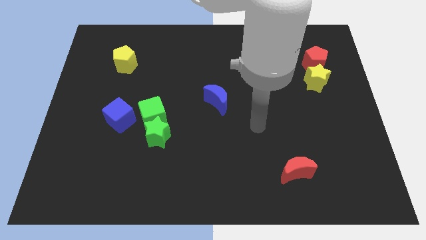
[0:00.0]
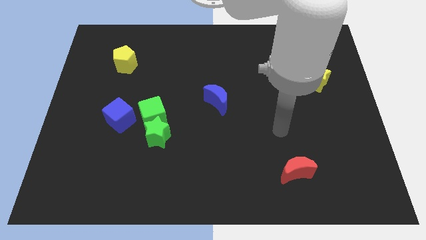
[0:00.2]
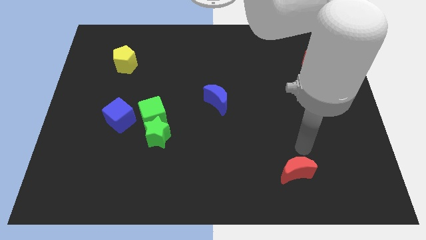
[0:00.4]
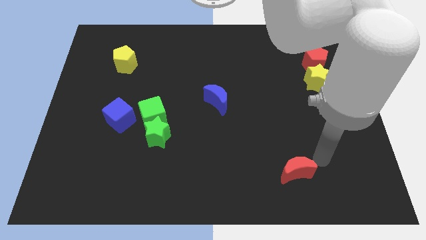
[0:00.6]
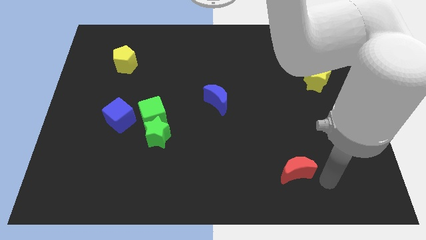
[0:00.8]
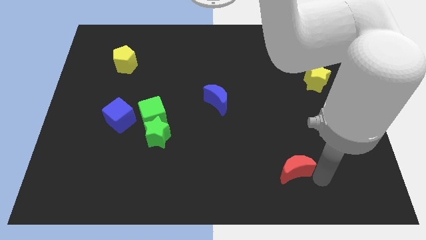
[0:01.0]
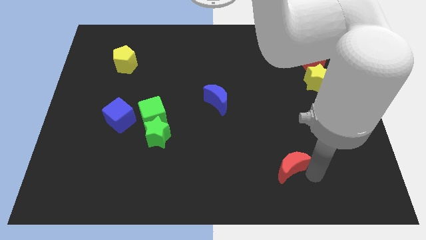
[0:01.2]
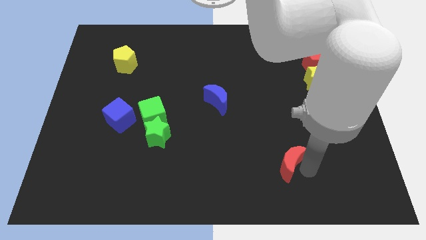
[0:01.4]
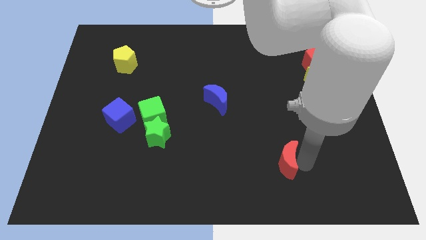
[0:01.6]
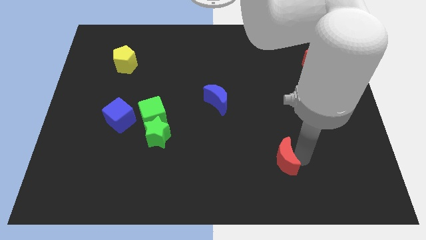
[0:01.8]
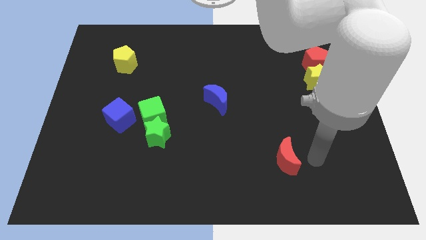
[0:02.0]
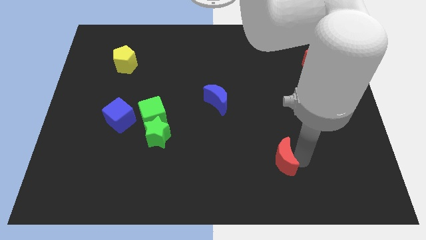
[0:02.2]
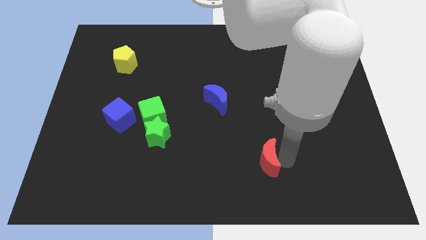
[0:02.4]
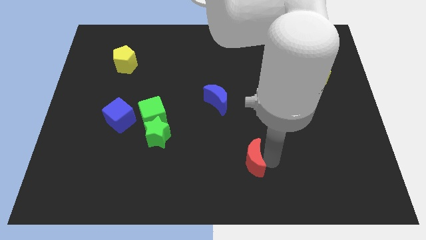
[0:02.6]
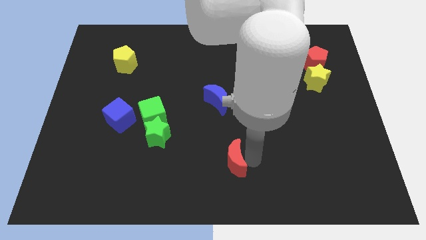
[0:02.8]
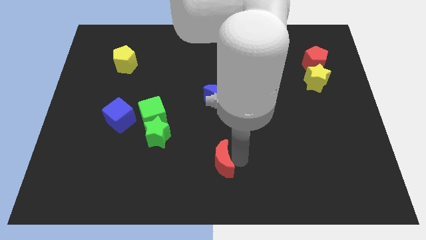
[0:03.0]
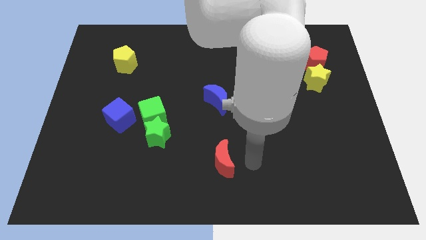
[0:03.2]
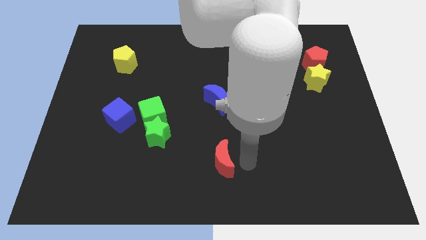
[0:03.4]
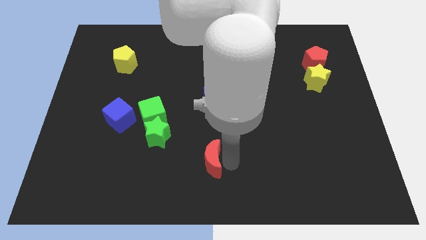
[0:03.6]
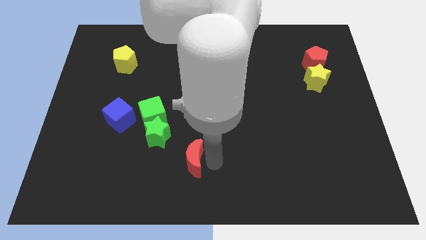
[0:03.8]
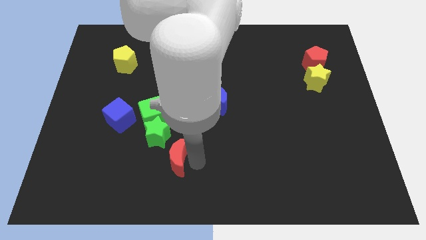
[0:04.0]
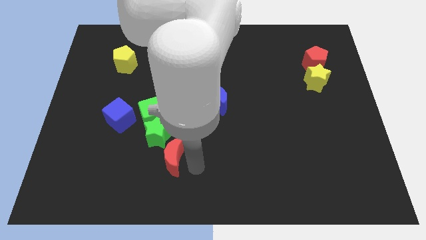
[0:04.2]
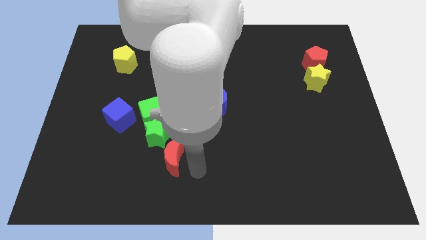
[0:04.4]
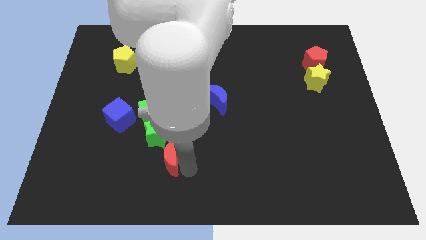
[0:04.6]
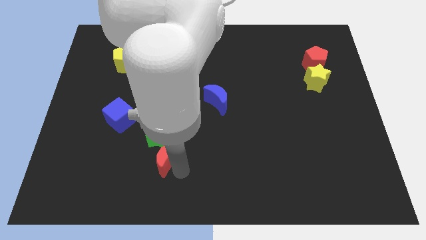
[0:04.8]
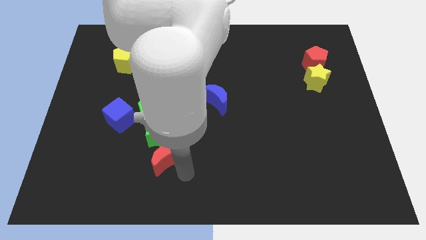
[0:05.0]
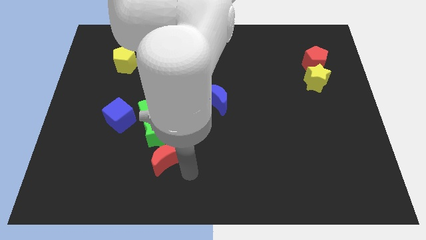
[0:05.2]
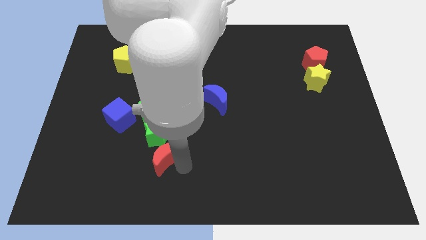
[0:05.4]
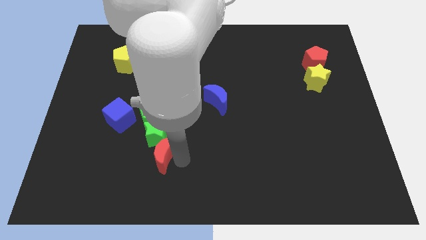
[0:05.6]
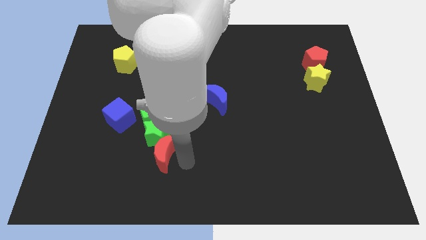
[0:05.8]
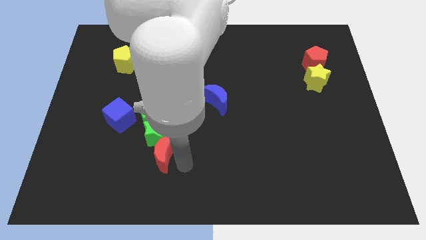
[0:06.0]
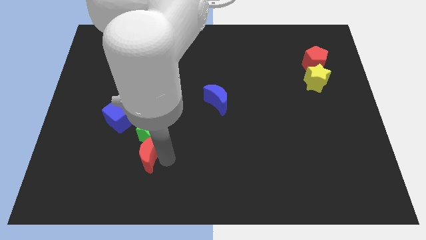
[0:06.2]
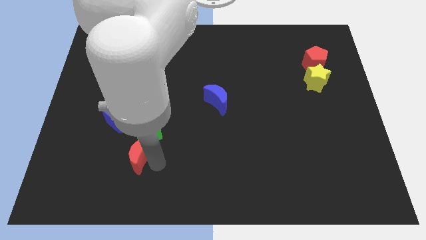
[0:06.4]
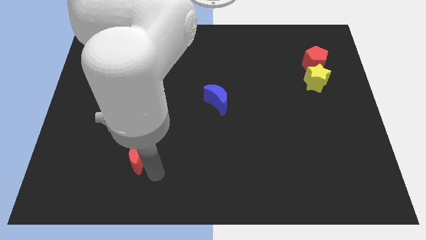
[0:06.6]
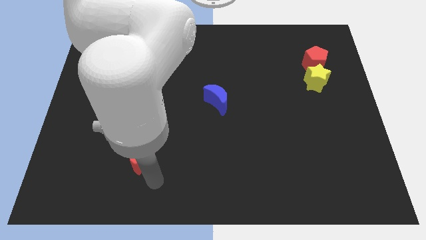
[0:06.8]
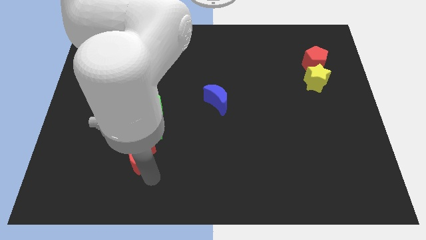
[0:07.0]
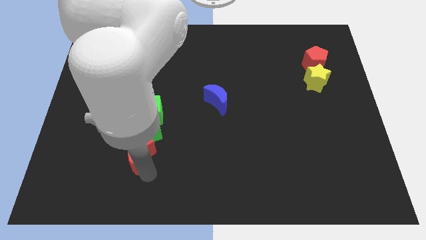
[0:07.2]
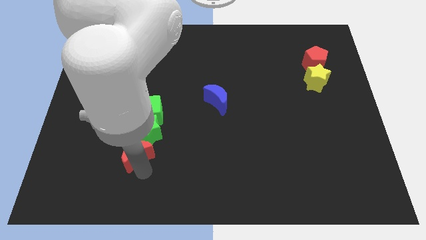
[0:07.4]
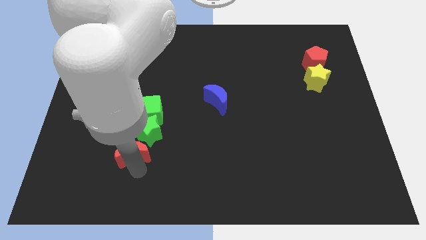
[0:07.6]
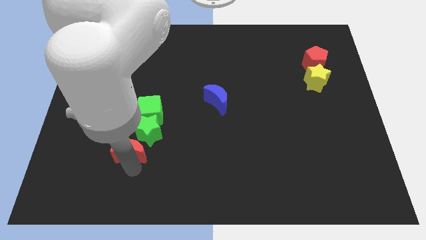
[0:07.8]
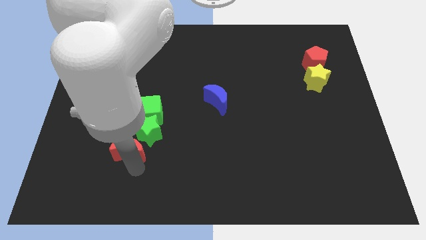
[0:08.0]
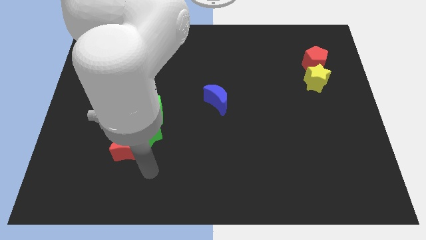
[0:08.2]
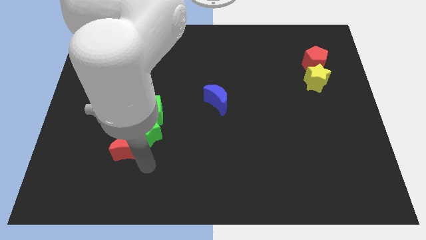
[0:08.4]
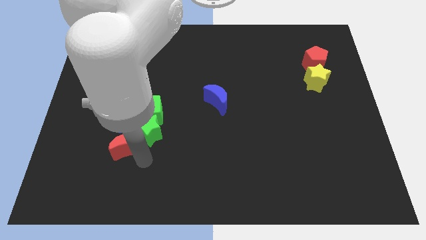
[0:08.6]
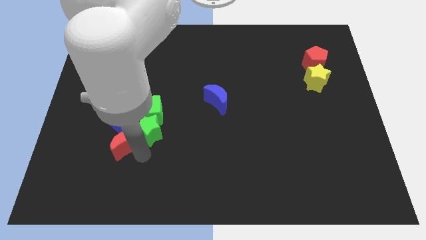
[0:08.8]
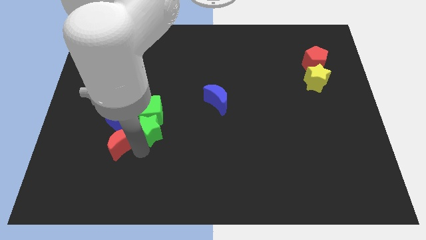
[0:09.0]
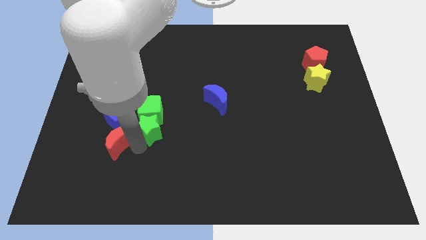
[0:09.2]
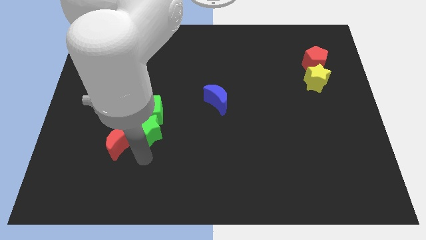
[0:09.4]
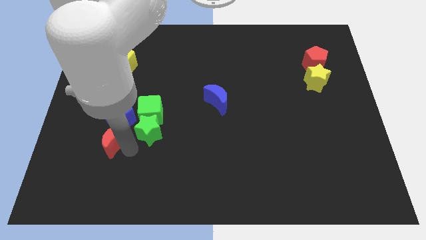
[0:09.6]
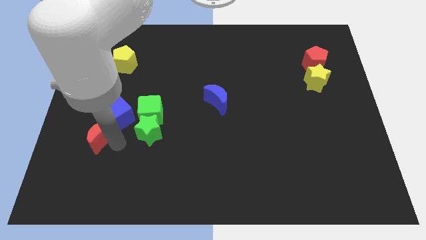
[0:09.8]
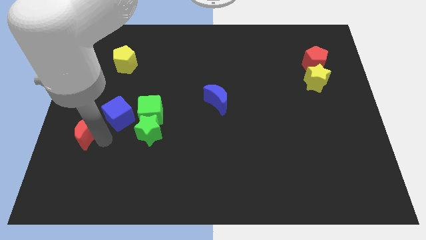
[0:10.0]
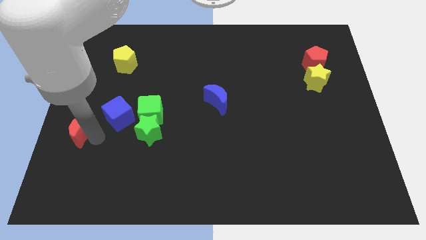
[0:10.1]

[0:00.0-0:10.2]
put the red moon to the left side
